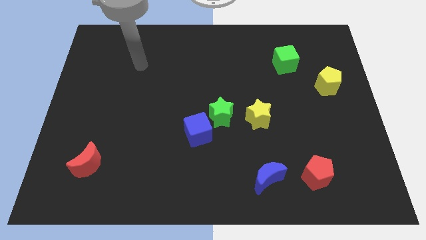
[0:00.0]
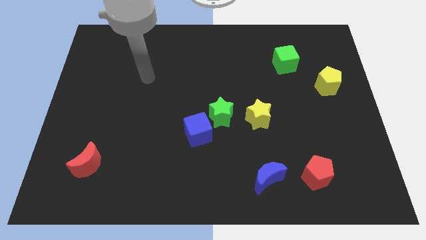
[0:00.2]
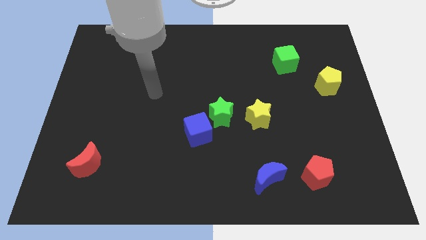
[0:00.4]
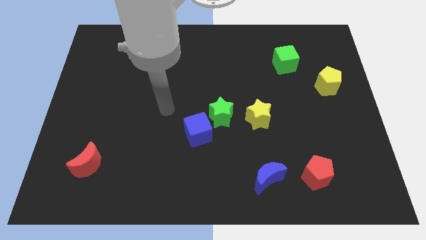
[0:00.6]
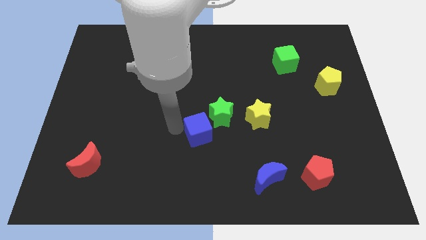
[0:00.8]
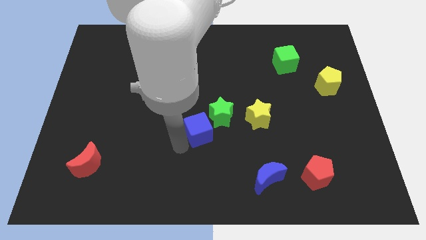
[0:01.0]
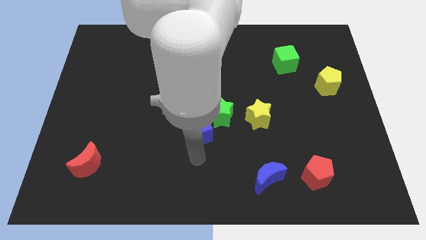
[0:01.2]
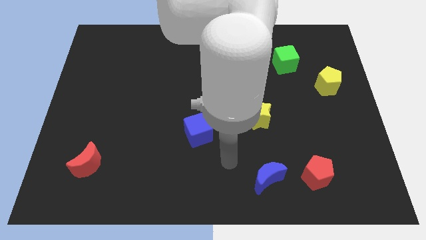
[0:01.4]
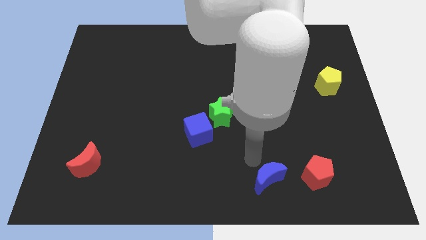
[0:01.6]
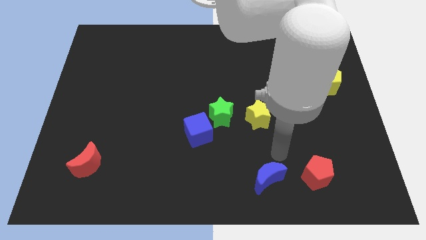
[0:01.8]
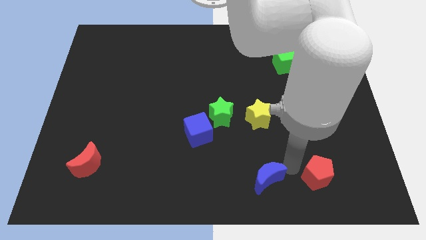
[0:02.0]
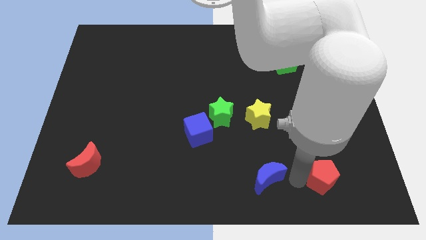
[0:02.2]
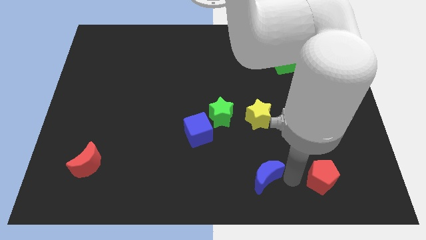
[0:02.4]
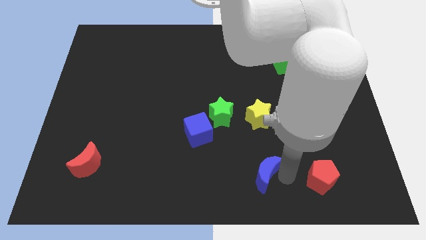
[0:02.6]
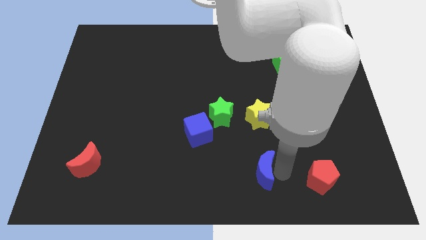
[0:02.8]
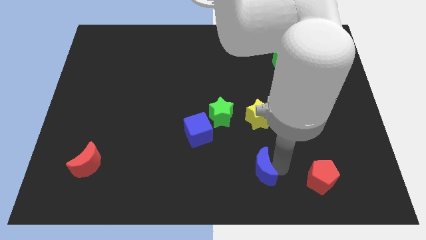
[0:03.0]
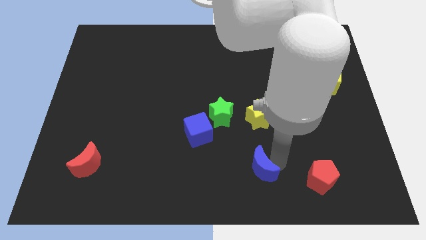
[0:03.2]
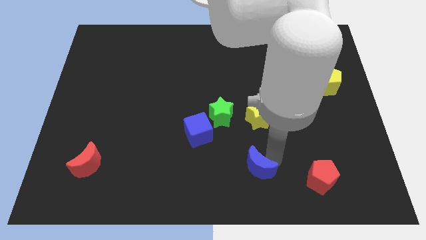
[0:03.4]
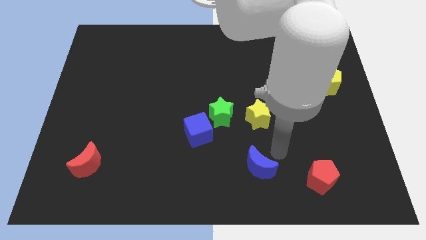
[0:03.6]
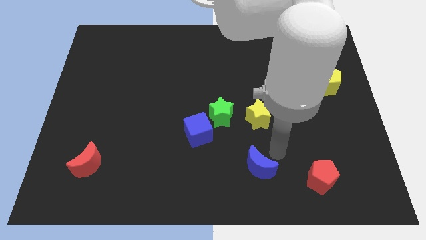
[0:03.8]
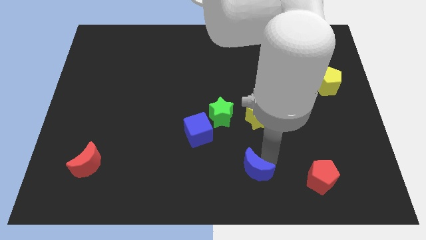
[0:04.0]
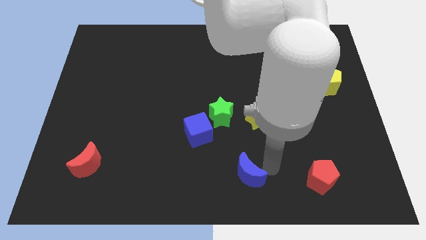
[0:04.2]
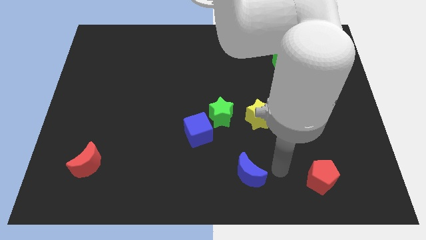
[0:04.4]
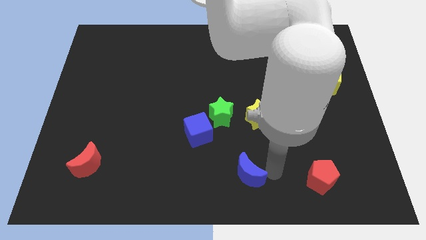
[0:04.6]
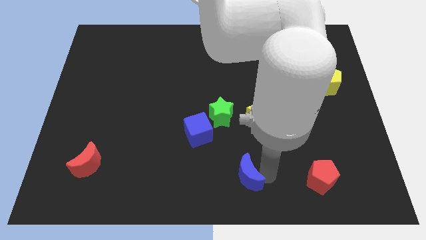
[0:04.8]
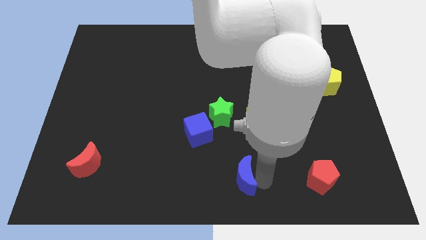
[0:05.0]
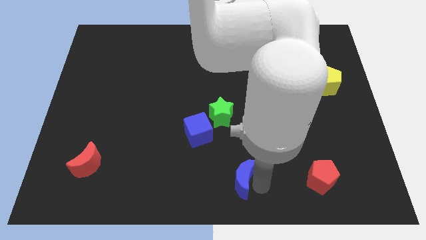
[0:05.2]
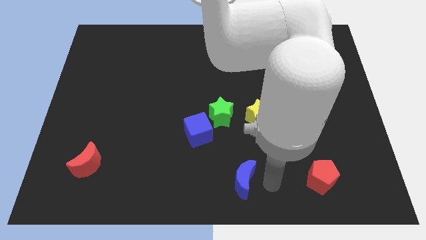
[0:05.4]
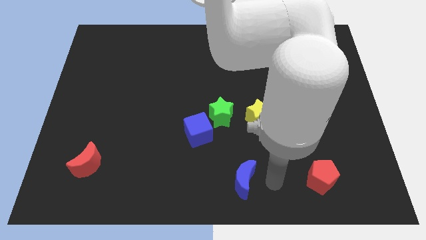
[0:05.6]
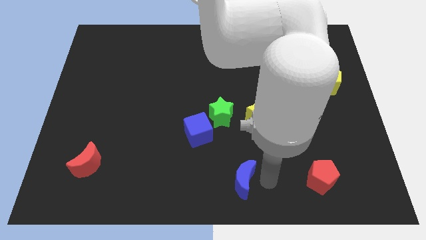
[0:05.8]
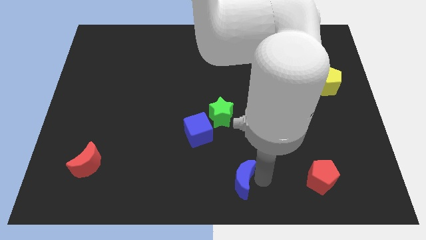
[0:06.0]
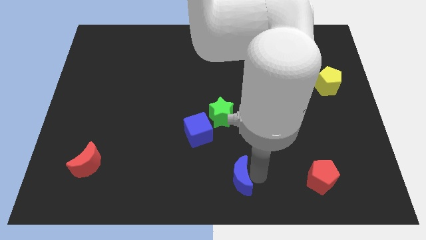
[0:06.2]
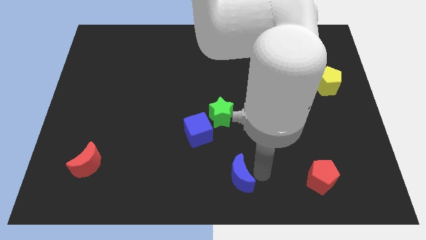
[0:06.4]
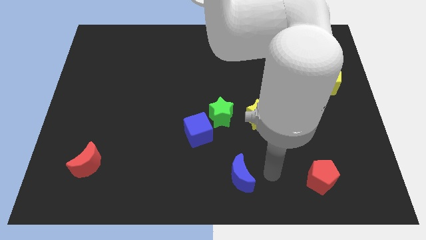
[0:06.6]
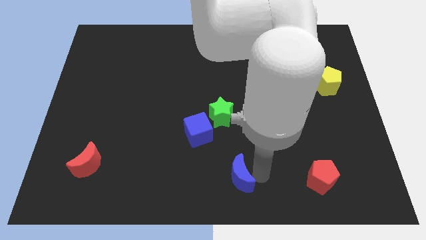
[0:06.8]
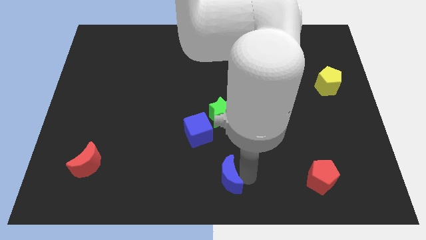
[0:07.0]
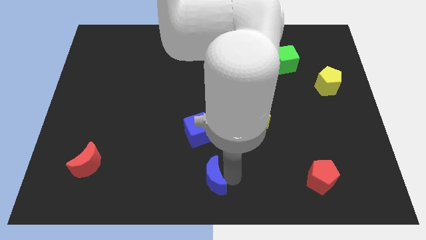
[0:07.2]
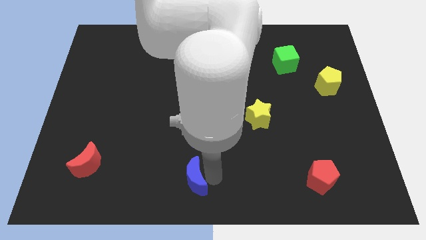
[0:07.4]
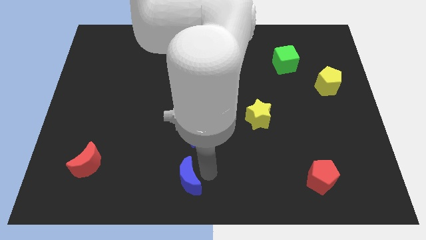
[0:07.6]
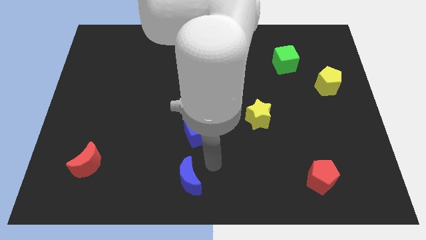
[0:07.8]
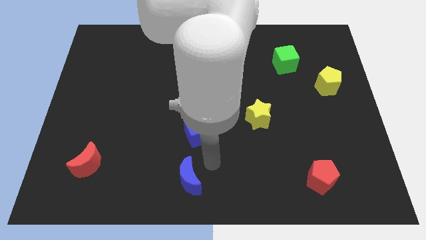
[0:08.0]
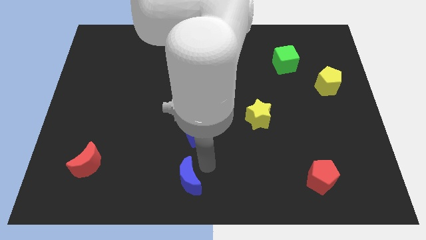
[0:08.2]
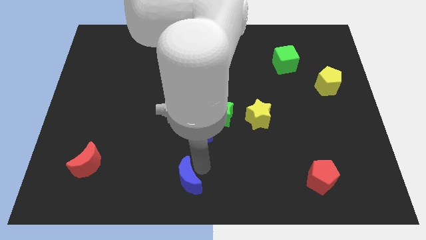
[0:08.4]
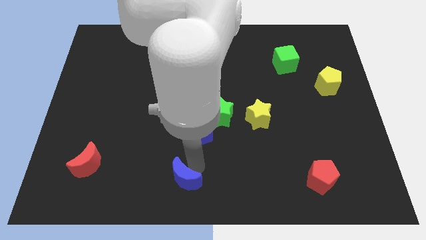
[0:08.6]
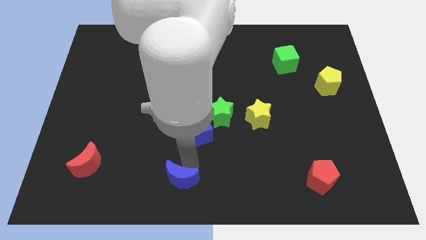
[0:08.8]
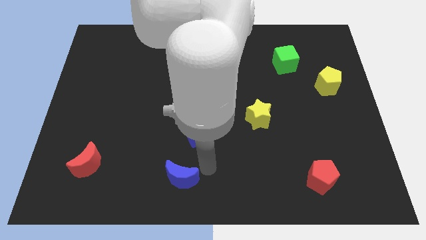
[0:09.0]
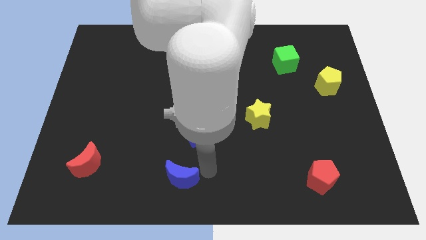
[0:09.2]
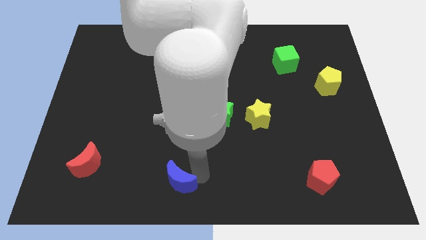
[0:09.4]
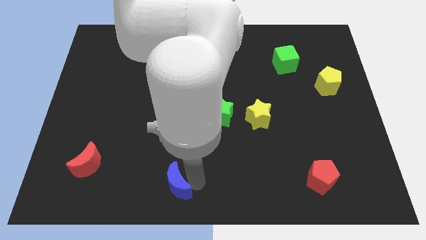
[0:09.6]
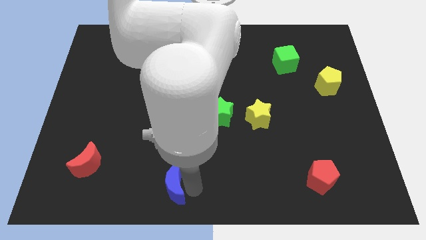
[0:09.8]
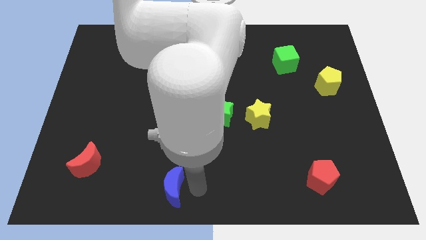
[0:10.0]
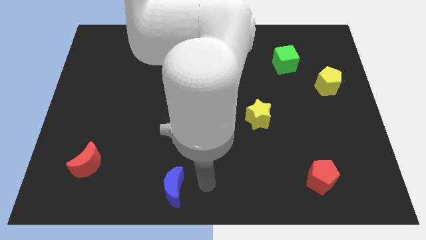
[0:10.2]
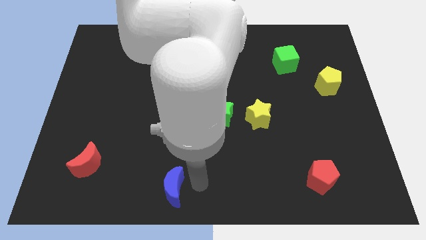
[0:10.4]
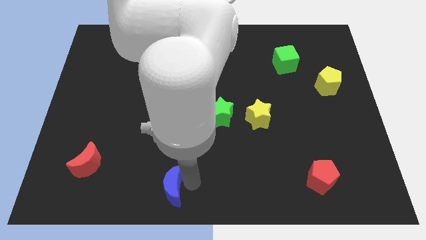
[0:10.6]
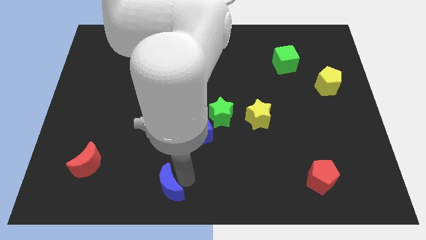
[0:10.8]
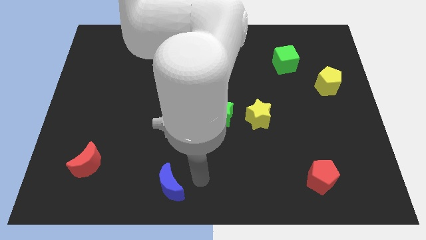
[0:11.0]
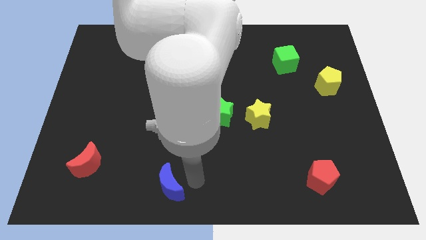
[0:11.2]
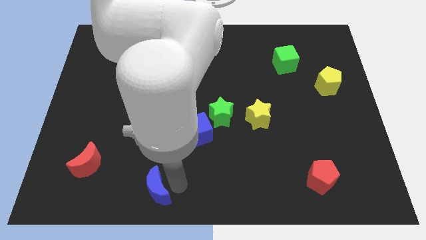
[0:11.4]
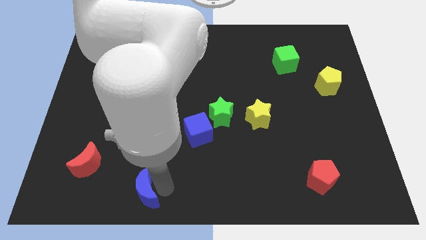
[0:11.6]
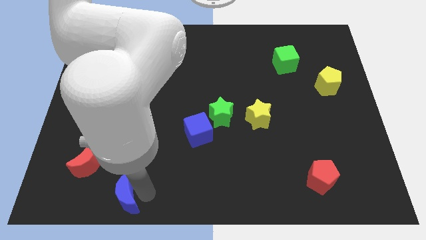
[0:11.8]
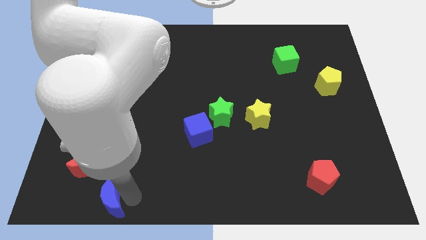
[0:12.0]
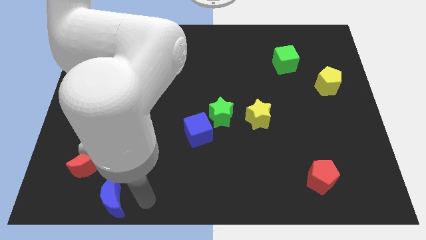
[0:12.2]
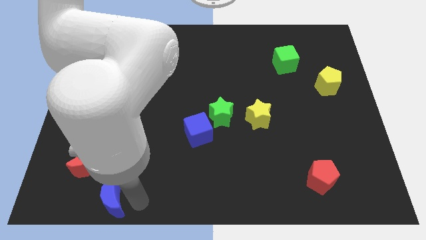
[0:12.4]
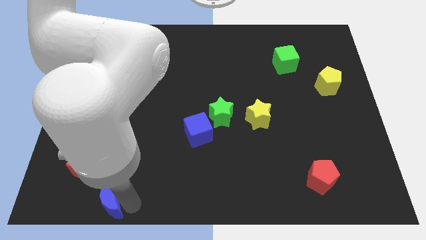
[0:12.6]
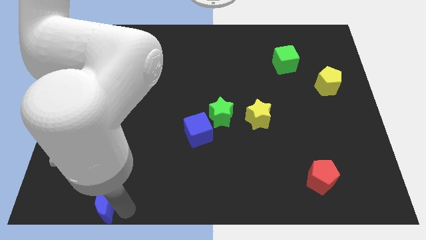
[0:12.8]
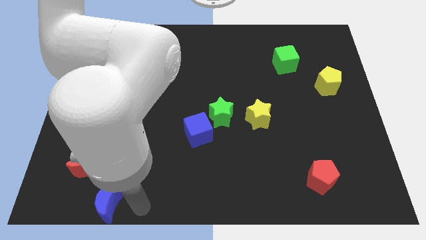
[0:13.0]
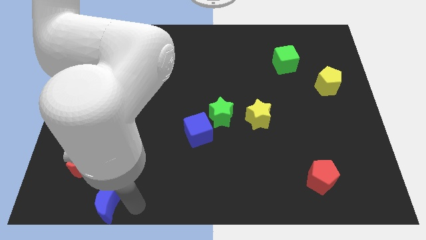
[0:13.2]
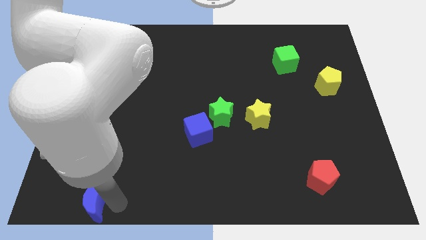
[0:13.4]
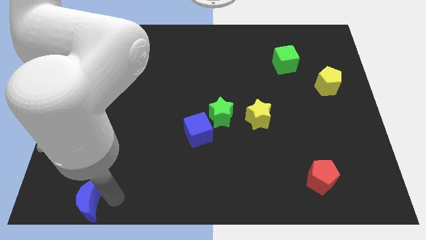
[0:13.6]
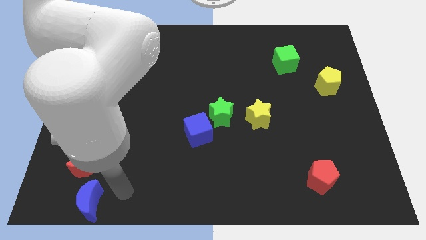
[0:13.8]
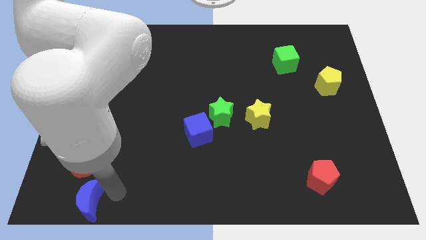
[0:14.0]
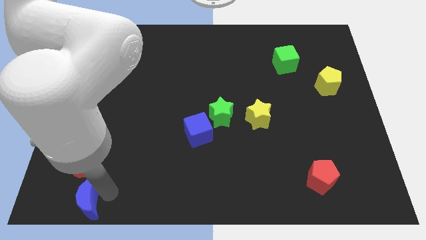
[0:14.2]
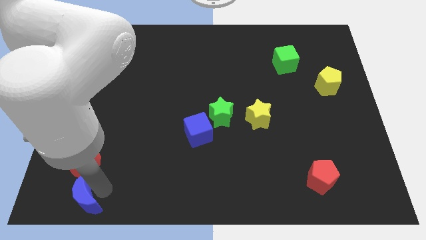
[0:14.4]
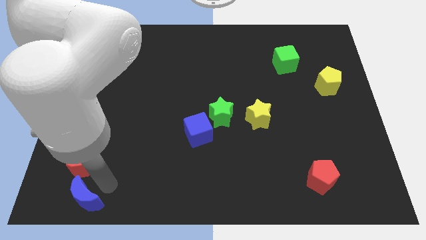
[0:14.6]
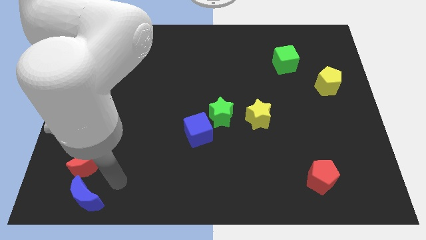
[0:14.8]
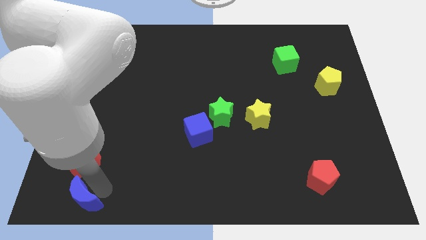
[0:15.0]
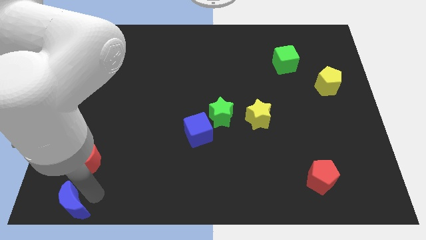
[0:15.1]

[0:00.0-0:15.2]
move the blue moon to the lower left corner
